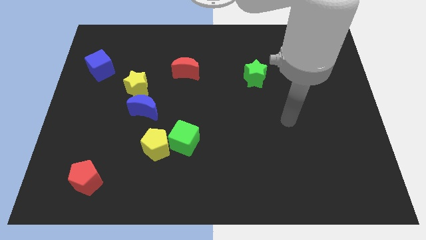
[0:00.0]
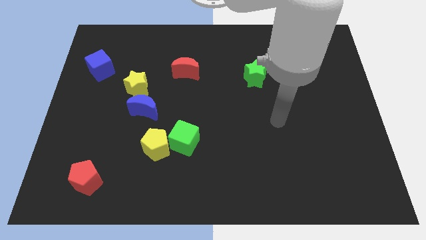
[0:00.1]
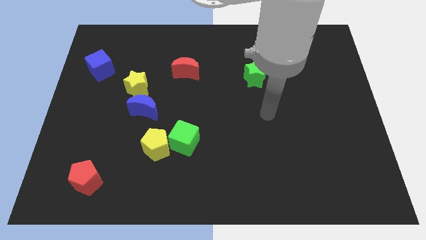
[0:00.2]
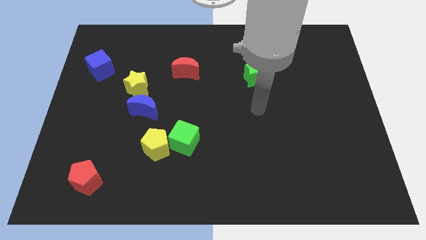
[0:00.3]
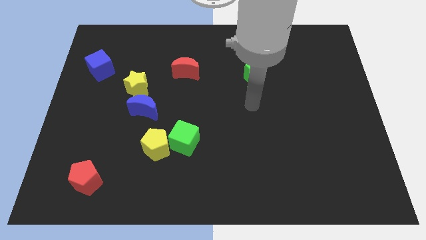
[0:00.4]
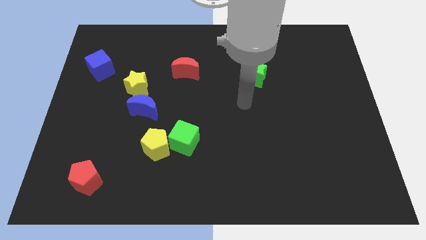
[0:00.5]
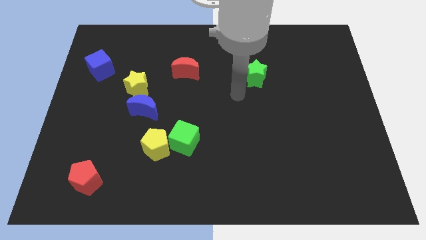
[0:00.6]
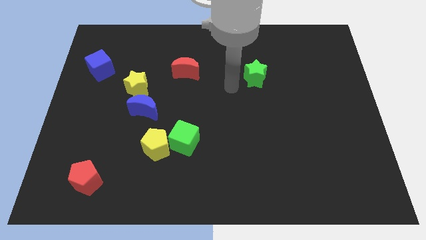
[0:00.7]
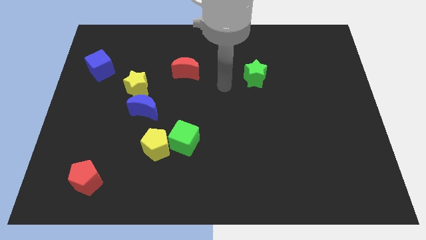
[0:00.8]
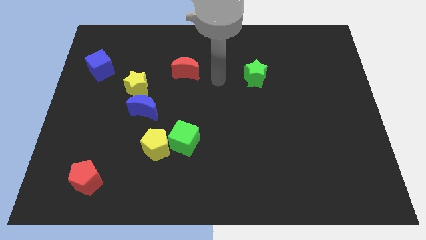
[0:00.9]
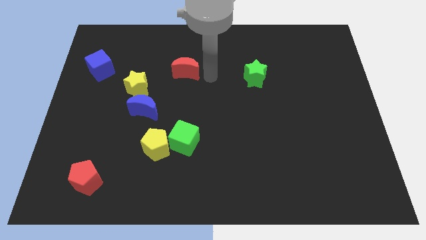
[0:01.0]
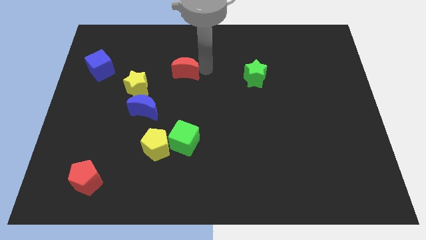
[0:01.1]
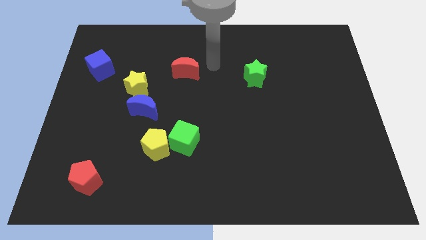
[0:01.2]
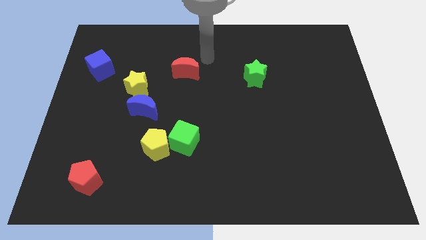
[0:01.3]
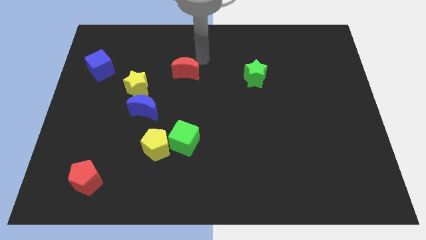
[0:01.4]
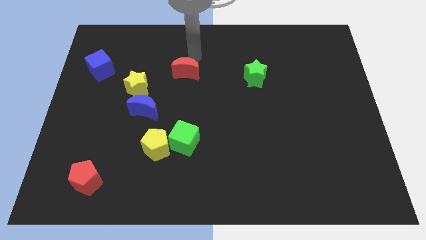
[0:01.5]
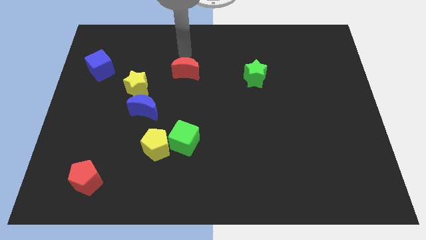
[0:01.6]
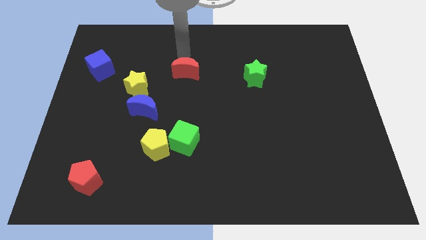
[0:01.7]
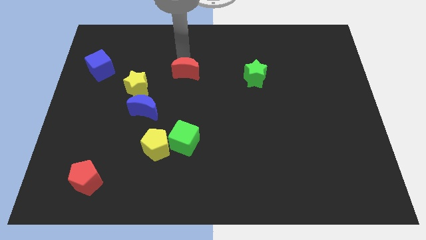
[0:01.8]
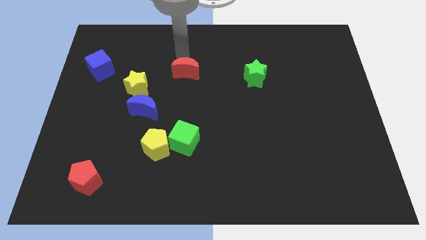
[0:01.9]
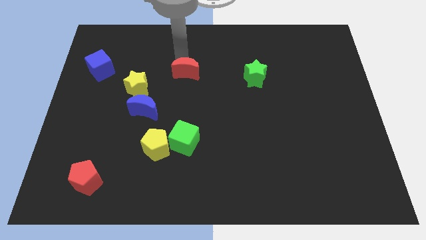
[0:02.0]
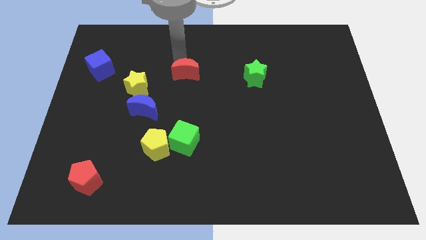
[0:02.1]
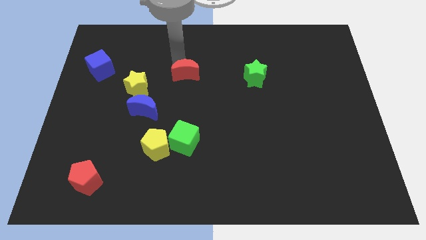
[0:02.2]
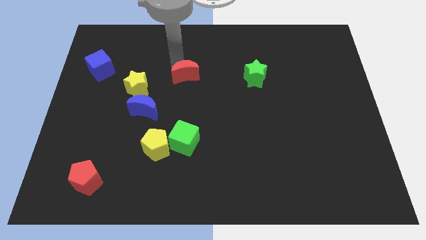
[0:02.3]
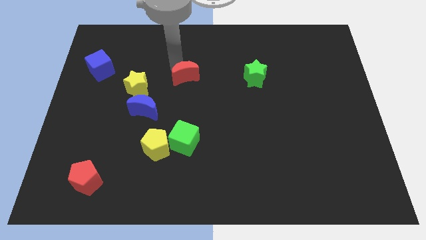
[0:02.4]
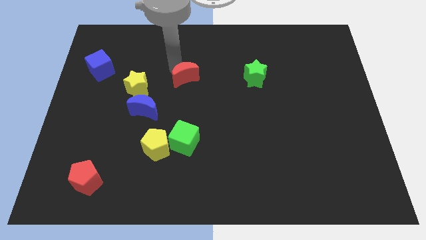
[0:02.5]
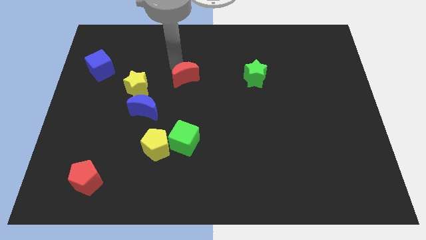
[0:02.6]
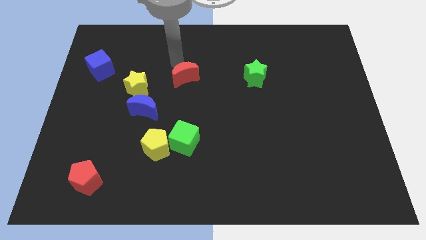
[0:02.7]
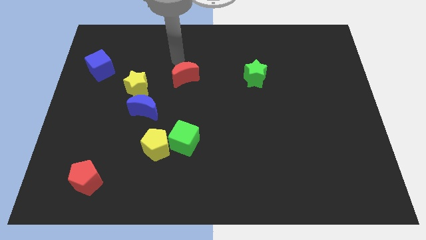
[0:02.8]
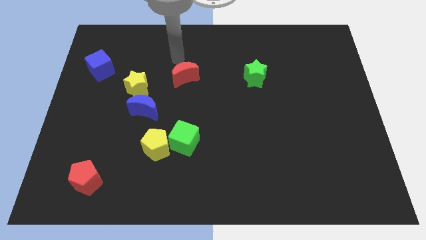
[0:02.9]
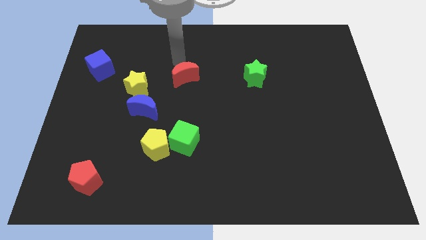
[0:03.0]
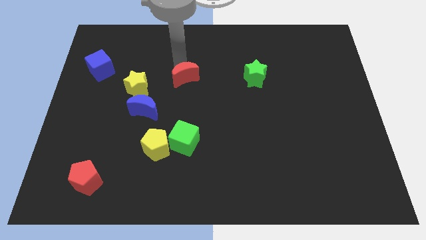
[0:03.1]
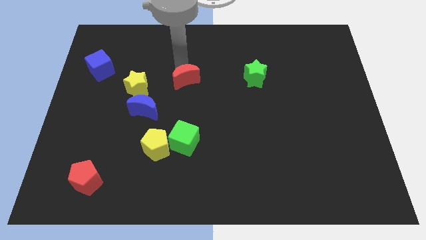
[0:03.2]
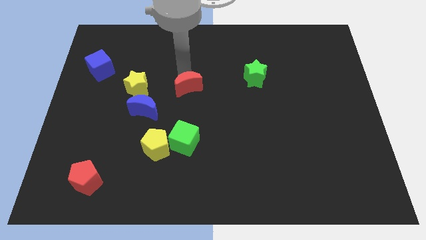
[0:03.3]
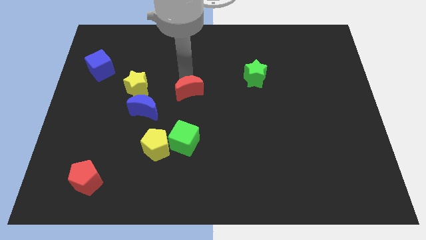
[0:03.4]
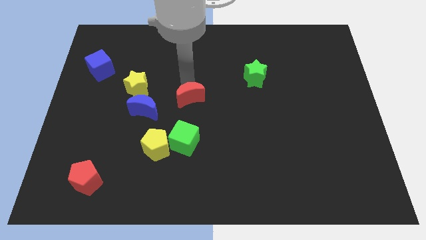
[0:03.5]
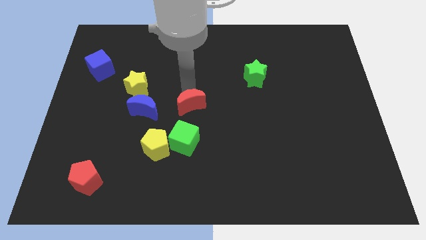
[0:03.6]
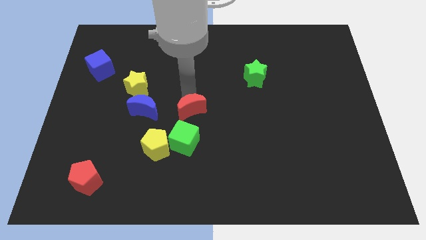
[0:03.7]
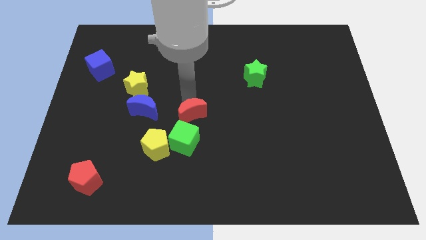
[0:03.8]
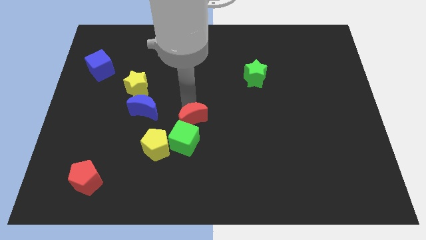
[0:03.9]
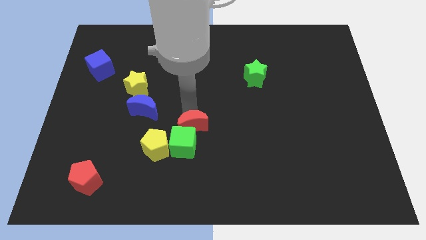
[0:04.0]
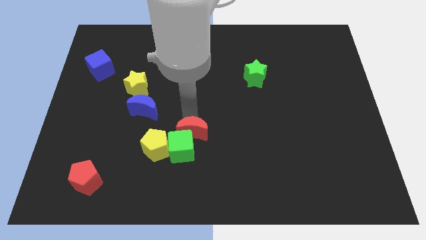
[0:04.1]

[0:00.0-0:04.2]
slide the red moon right of the yellow pentagon

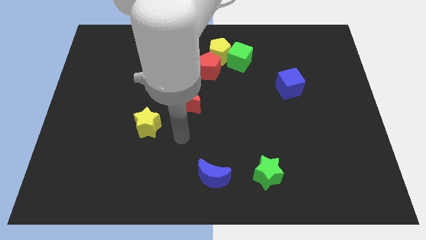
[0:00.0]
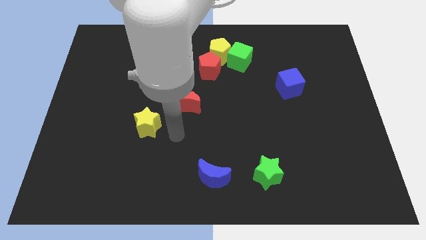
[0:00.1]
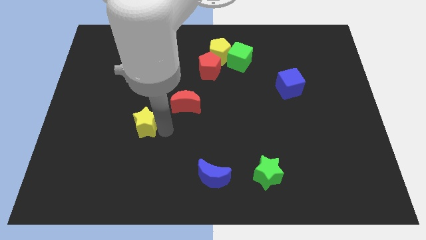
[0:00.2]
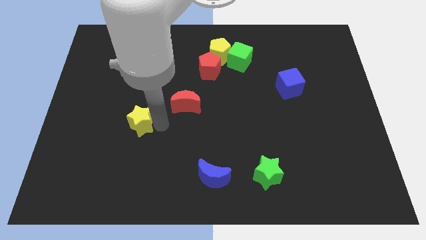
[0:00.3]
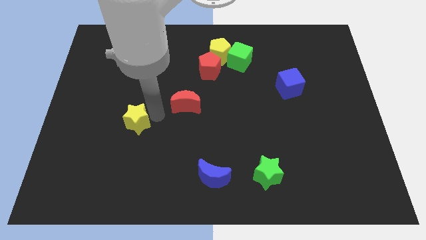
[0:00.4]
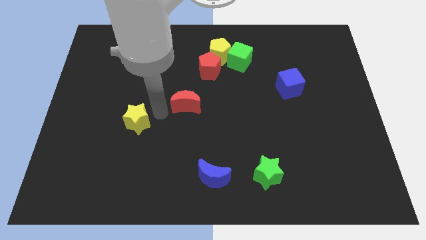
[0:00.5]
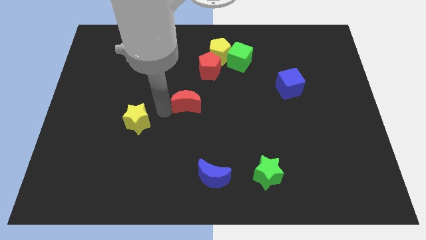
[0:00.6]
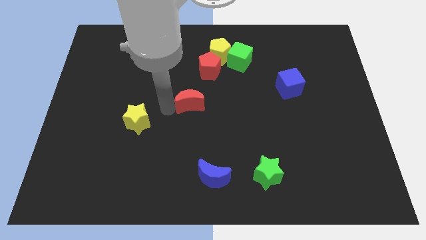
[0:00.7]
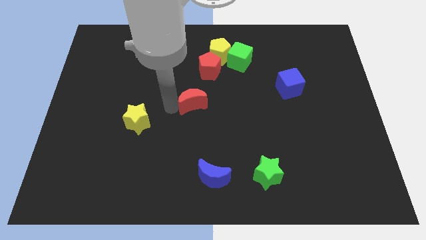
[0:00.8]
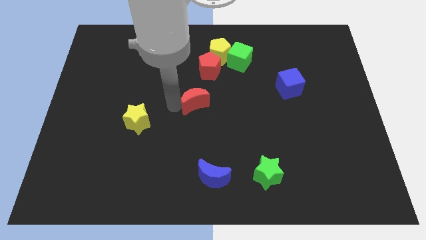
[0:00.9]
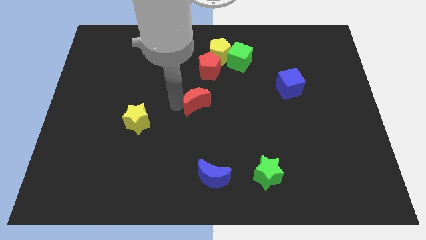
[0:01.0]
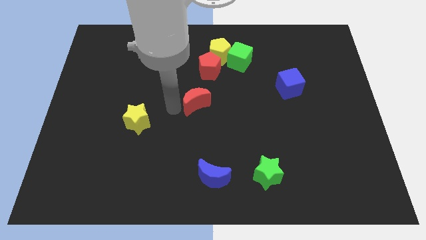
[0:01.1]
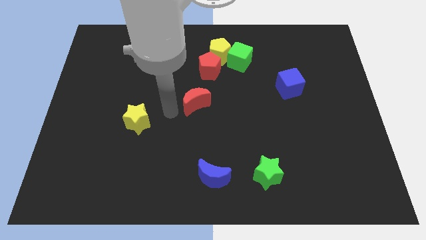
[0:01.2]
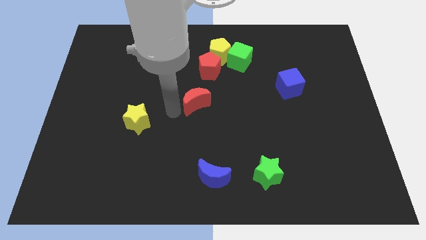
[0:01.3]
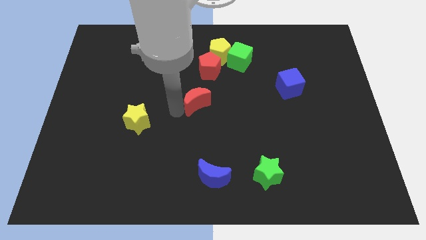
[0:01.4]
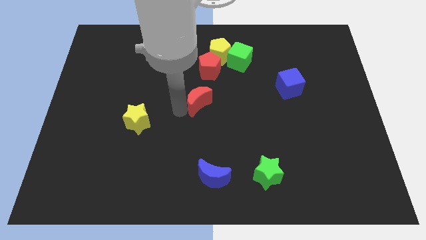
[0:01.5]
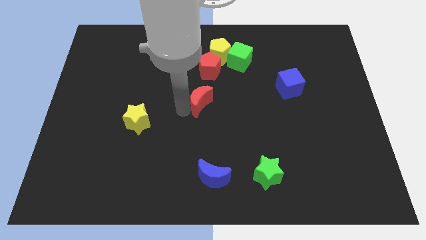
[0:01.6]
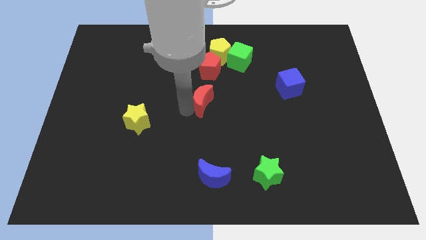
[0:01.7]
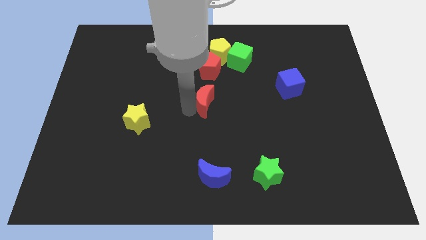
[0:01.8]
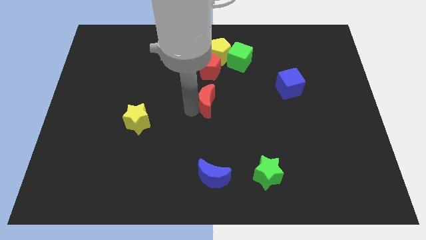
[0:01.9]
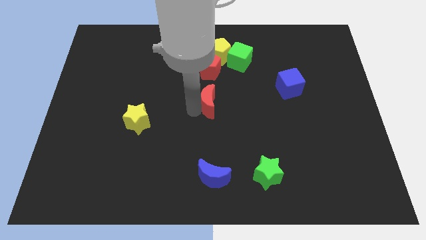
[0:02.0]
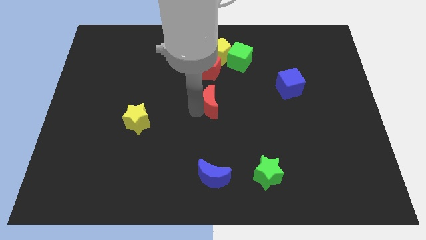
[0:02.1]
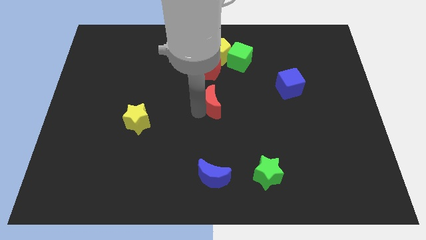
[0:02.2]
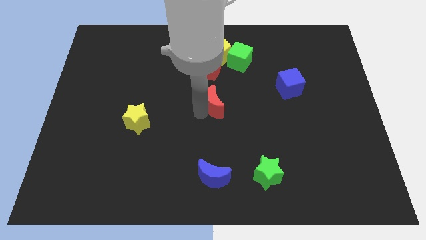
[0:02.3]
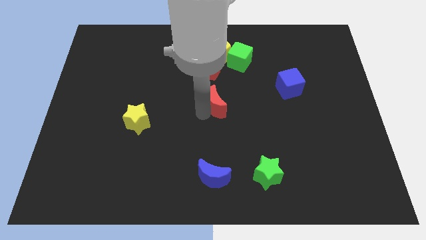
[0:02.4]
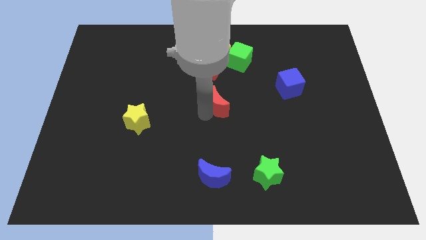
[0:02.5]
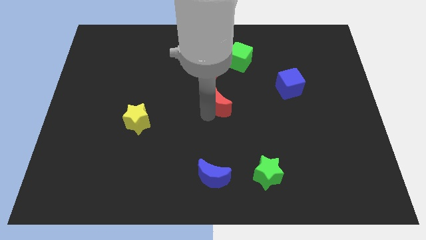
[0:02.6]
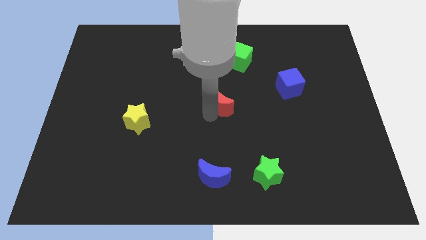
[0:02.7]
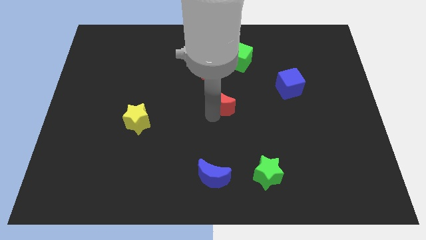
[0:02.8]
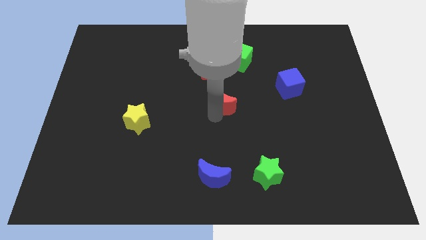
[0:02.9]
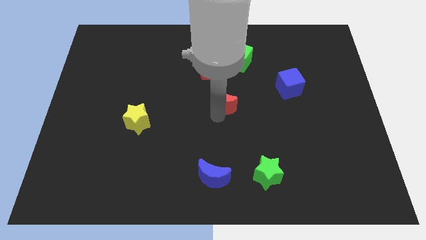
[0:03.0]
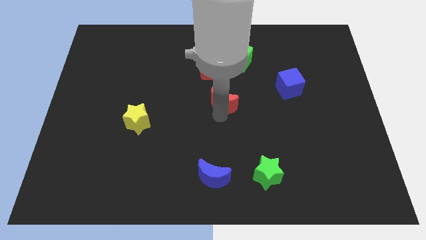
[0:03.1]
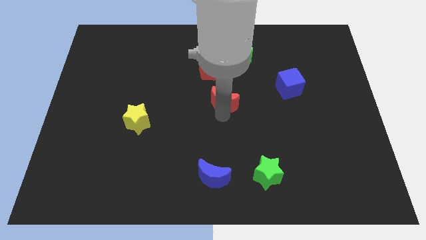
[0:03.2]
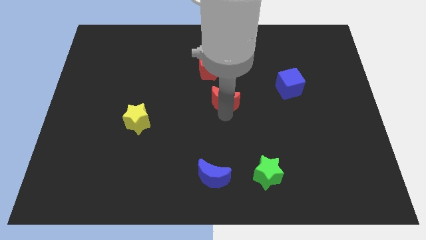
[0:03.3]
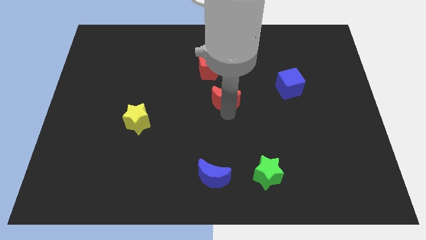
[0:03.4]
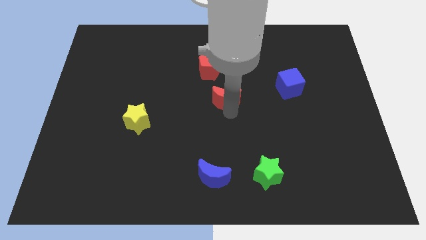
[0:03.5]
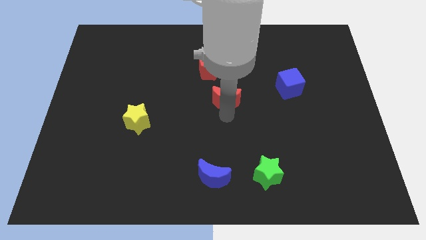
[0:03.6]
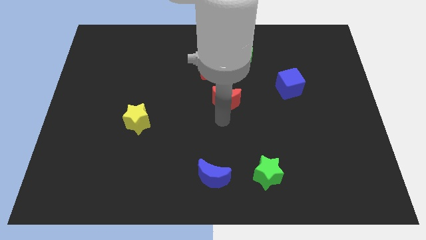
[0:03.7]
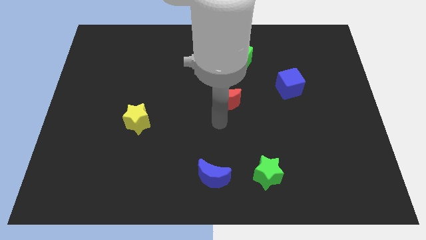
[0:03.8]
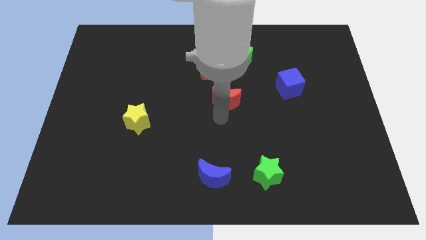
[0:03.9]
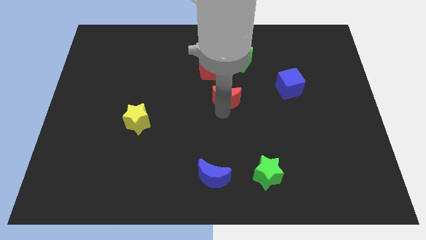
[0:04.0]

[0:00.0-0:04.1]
move the red moon to the bottom right side of the red pentagon
